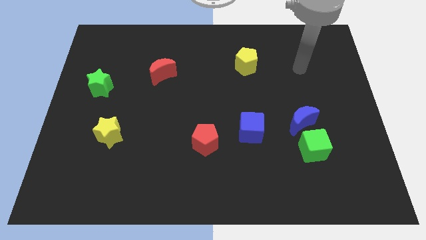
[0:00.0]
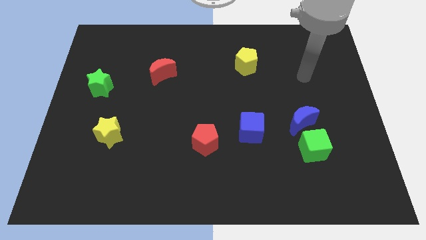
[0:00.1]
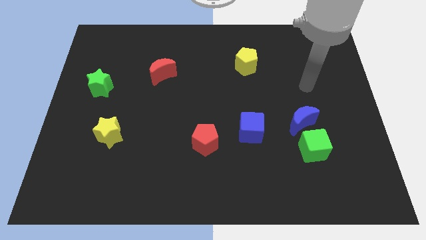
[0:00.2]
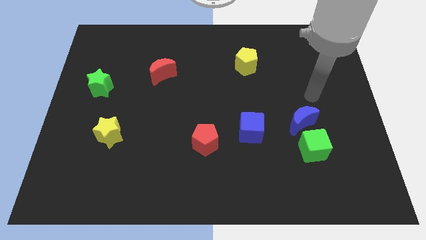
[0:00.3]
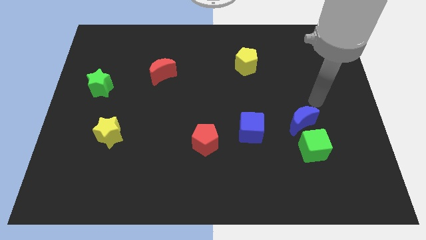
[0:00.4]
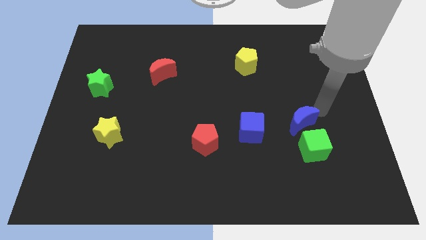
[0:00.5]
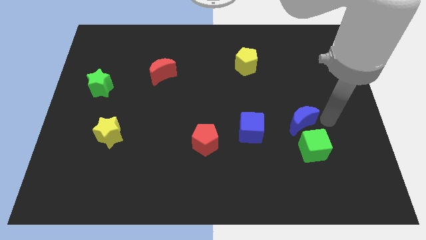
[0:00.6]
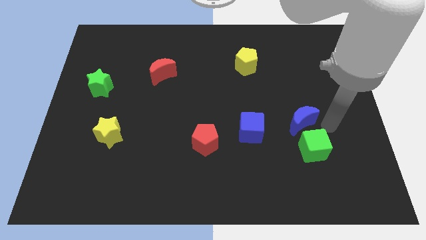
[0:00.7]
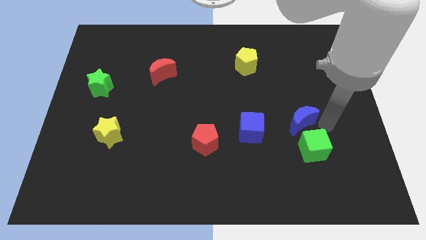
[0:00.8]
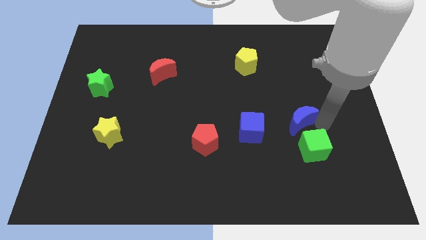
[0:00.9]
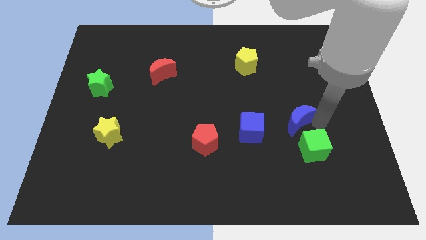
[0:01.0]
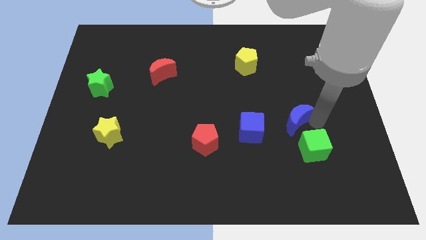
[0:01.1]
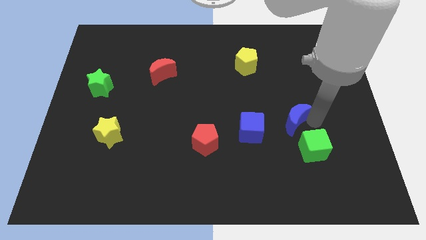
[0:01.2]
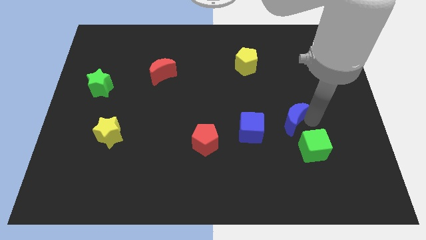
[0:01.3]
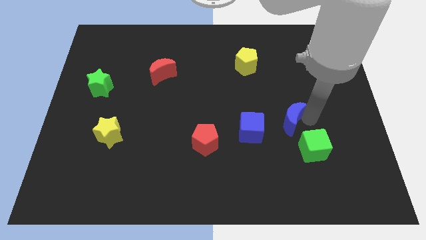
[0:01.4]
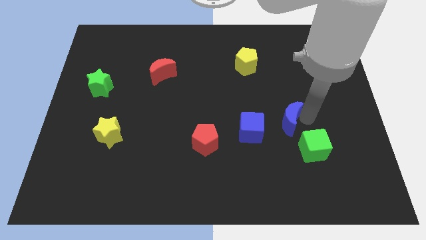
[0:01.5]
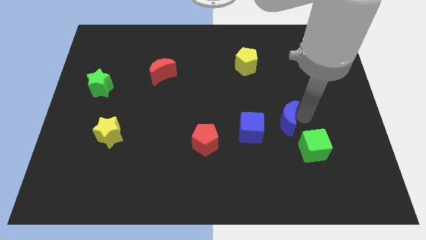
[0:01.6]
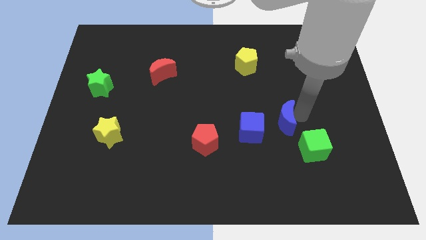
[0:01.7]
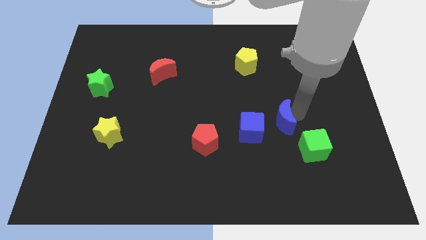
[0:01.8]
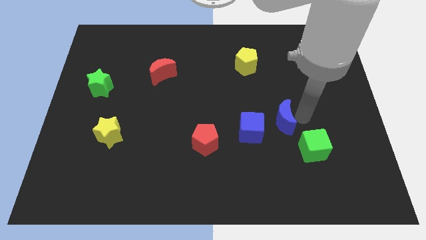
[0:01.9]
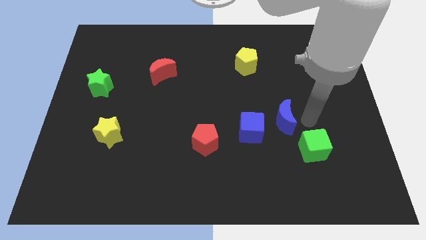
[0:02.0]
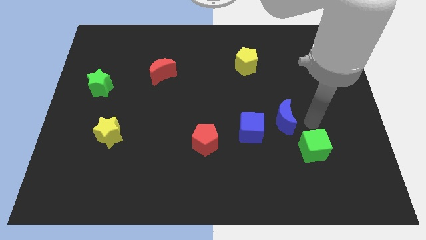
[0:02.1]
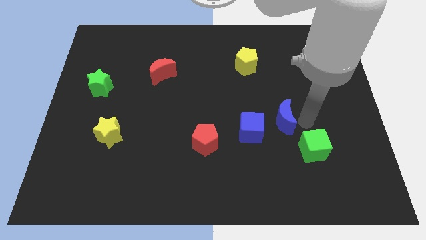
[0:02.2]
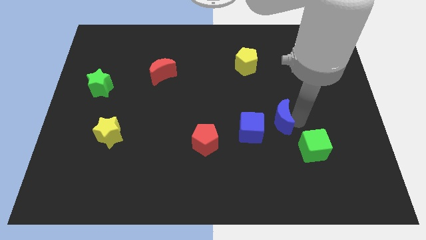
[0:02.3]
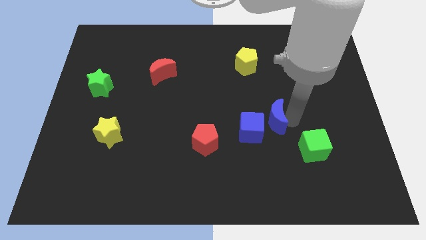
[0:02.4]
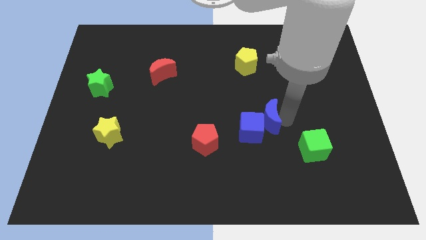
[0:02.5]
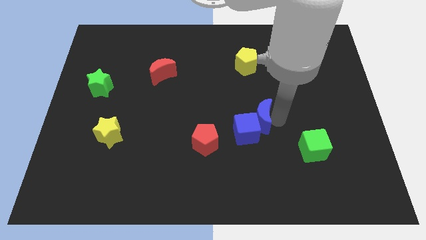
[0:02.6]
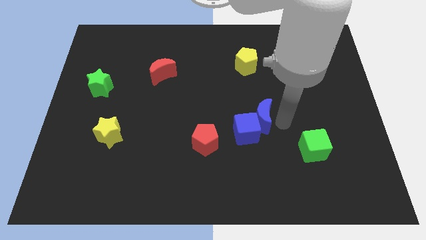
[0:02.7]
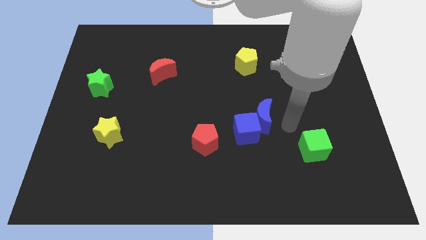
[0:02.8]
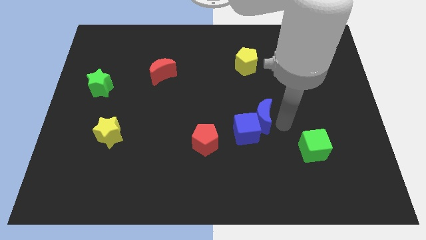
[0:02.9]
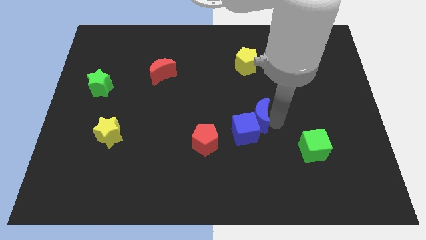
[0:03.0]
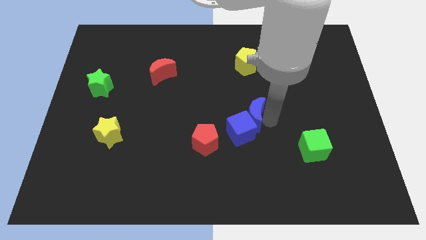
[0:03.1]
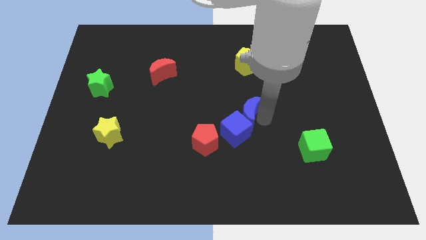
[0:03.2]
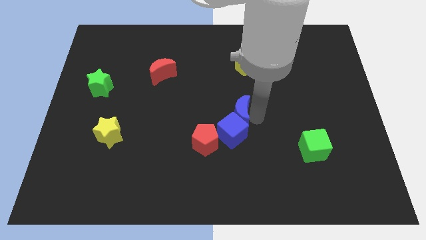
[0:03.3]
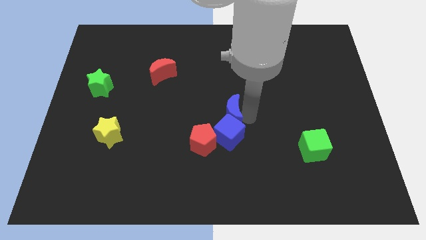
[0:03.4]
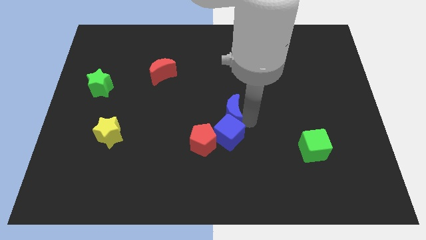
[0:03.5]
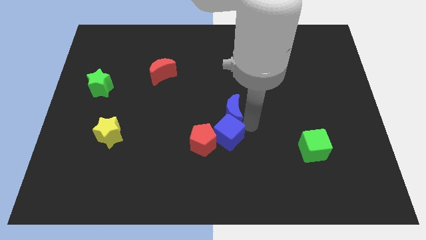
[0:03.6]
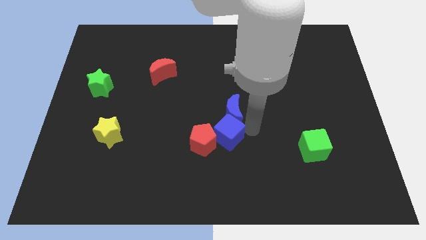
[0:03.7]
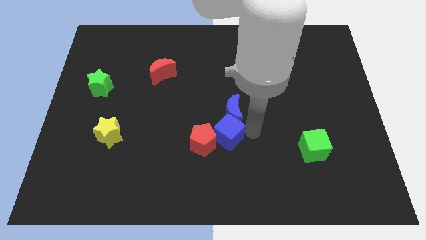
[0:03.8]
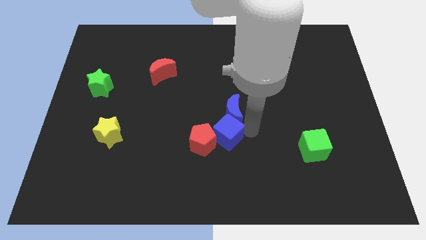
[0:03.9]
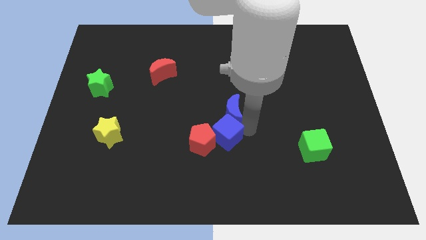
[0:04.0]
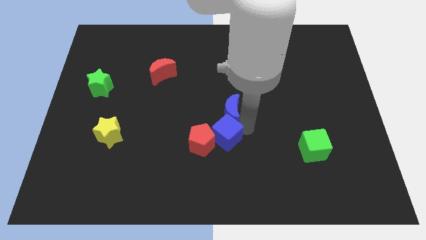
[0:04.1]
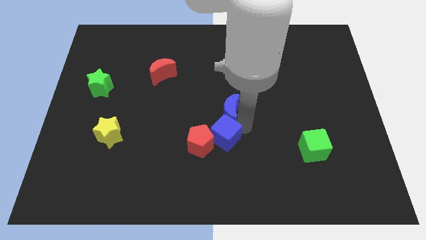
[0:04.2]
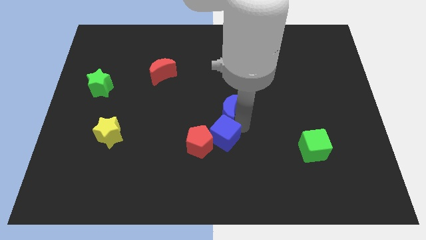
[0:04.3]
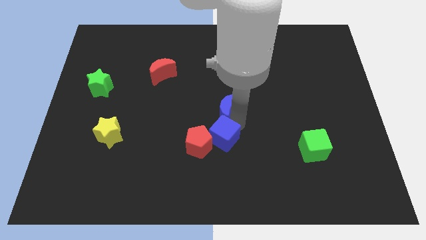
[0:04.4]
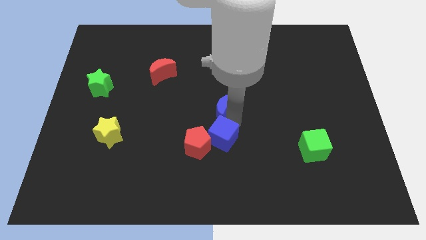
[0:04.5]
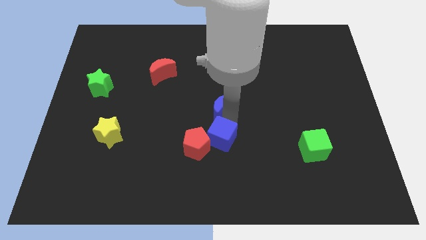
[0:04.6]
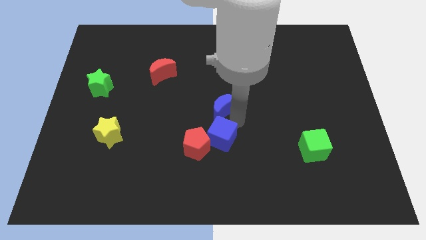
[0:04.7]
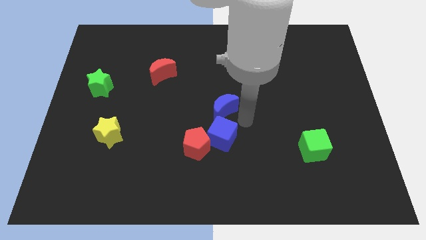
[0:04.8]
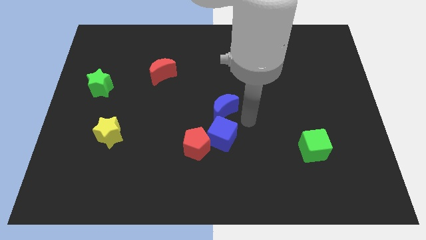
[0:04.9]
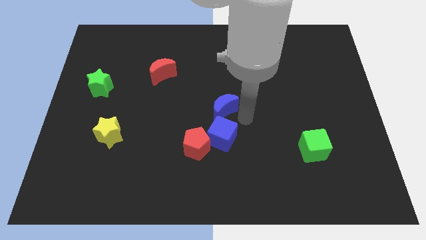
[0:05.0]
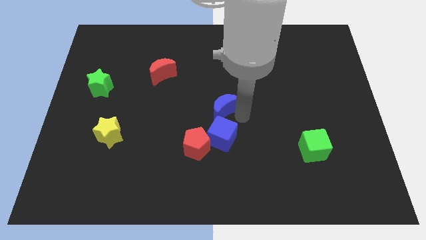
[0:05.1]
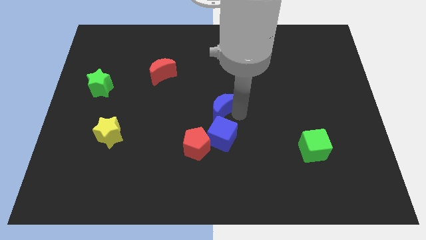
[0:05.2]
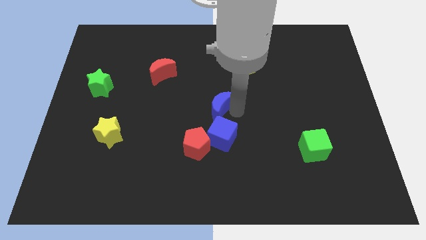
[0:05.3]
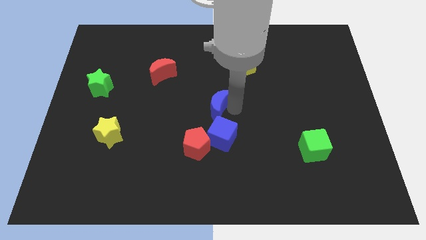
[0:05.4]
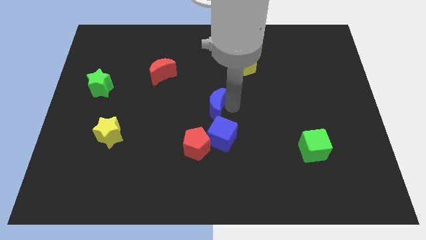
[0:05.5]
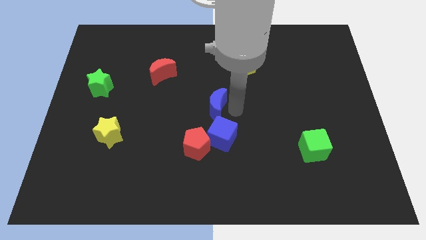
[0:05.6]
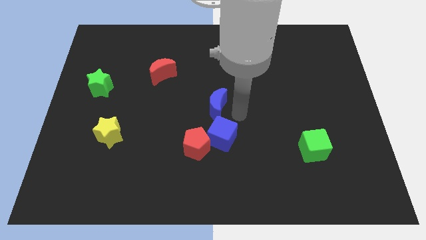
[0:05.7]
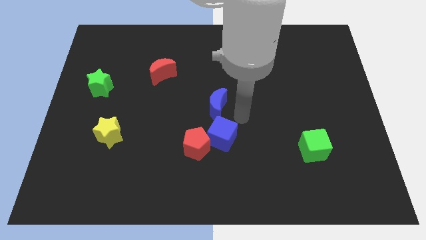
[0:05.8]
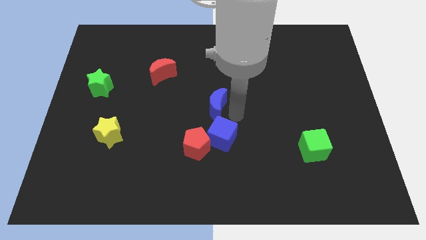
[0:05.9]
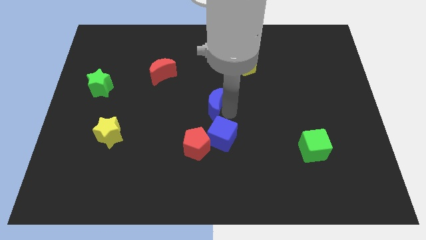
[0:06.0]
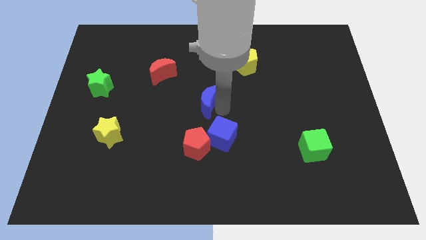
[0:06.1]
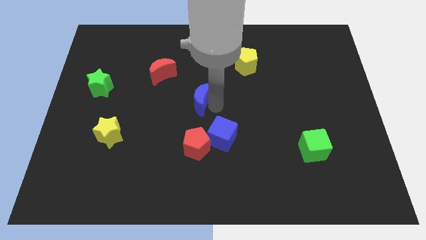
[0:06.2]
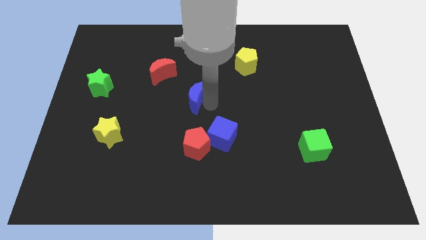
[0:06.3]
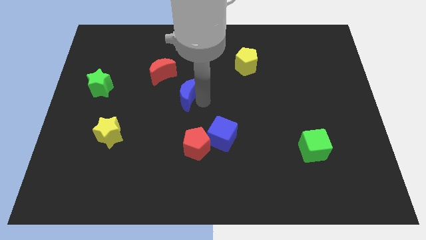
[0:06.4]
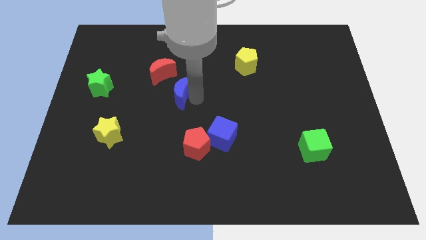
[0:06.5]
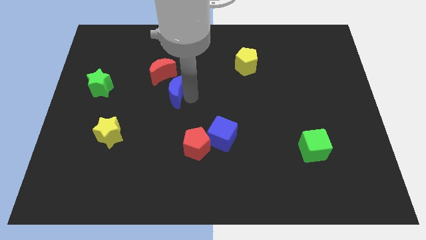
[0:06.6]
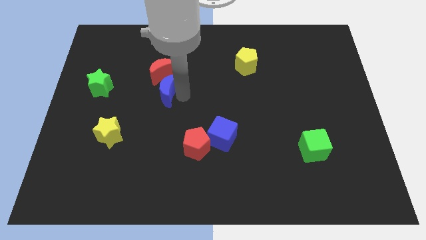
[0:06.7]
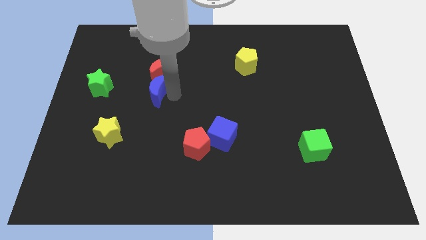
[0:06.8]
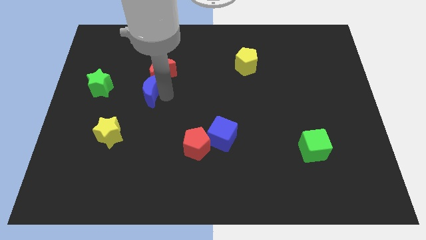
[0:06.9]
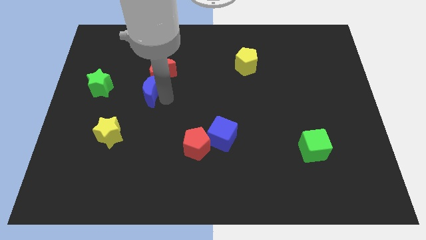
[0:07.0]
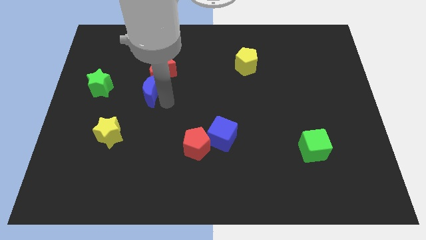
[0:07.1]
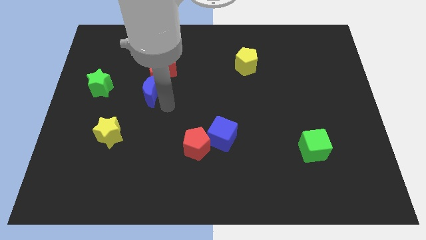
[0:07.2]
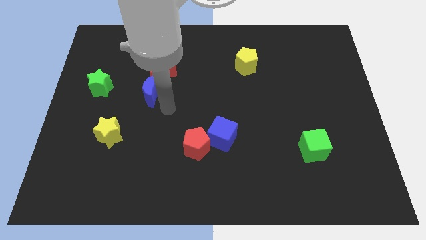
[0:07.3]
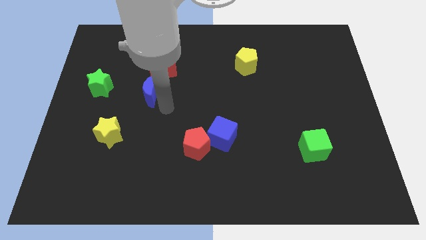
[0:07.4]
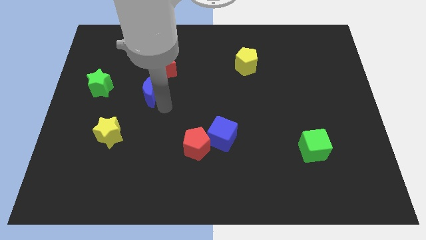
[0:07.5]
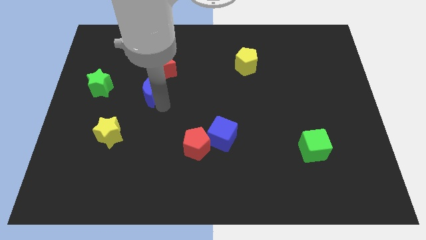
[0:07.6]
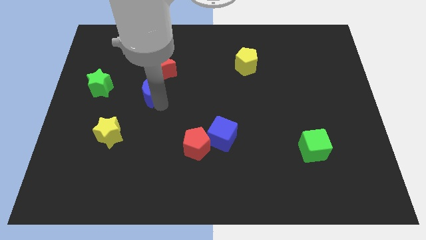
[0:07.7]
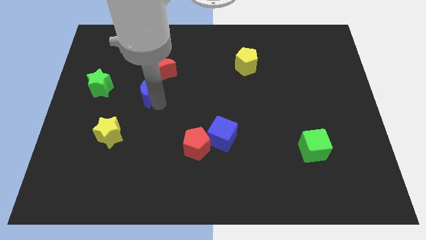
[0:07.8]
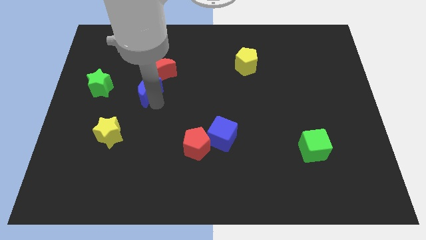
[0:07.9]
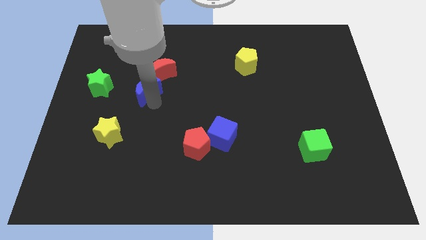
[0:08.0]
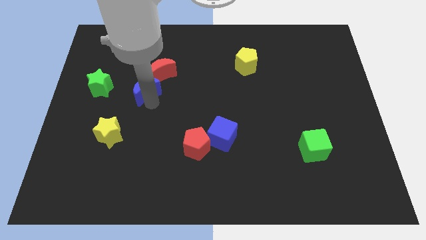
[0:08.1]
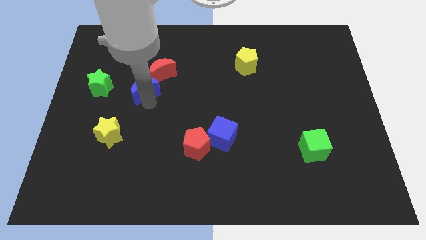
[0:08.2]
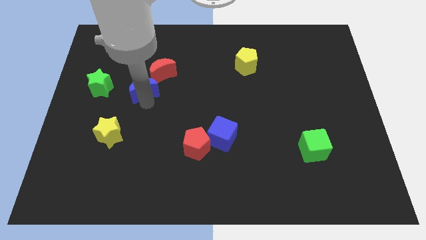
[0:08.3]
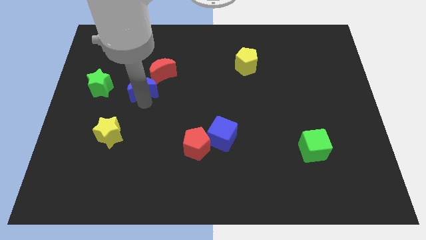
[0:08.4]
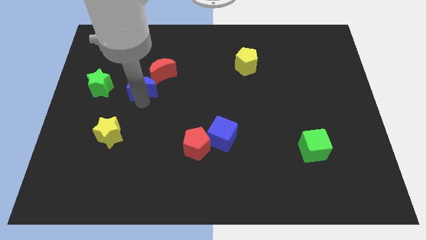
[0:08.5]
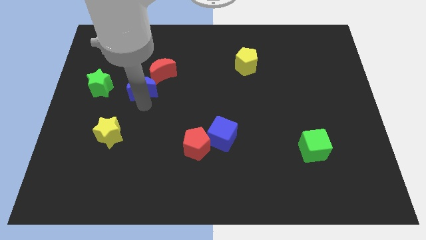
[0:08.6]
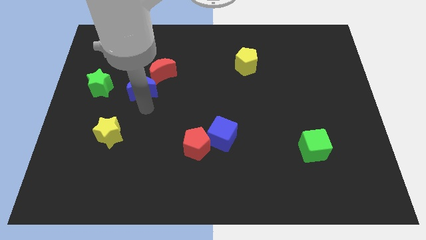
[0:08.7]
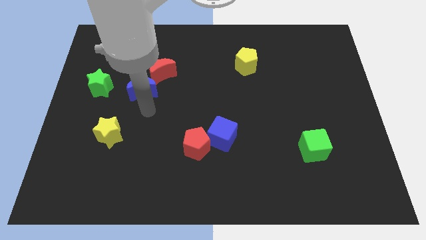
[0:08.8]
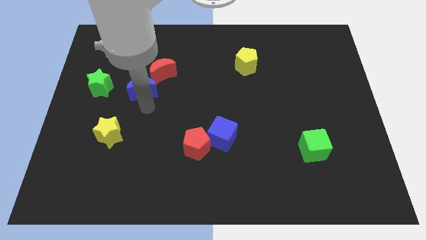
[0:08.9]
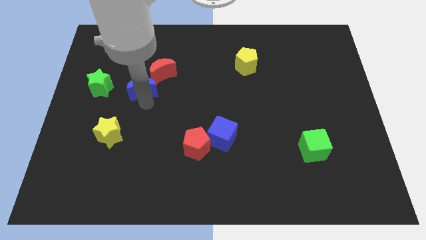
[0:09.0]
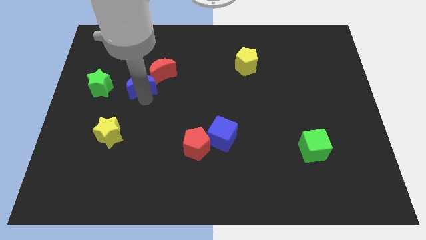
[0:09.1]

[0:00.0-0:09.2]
slide the blue moon just left of the red moon
